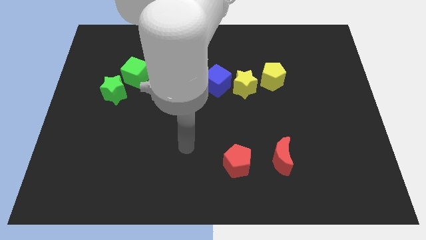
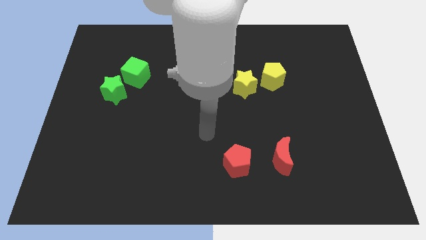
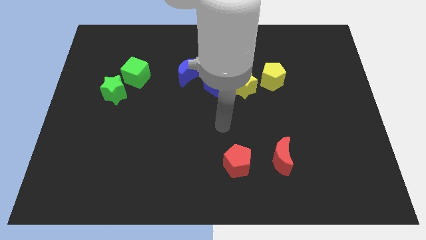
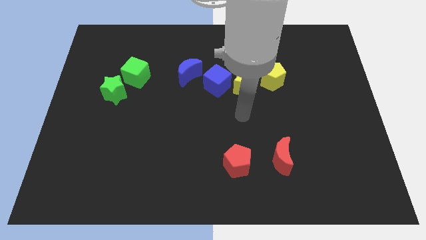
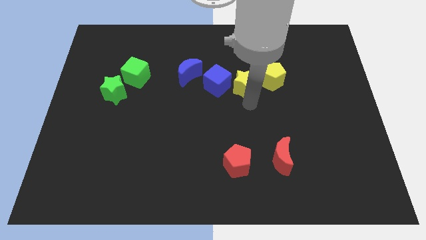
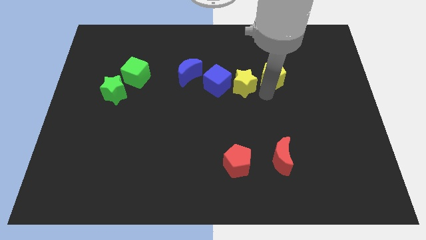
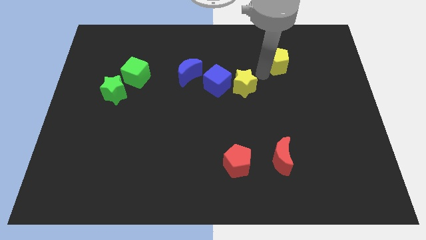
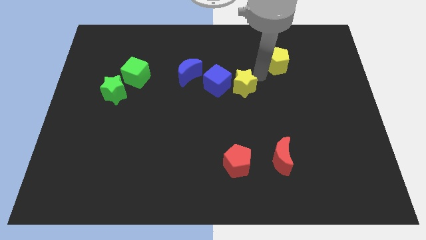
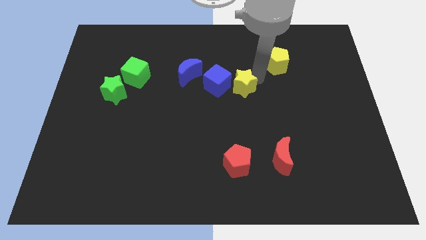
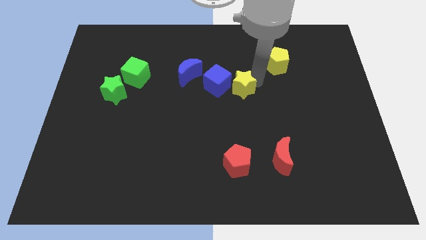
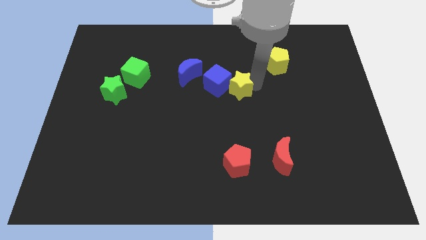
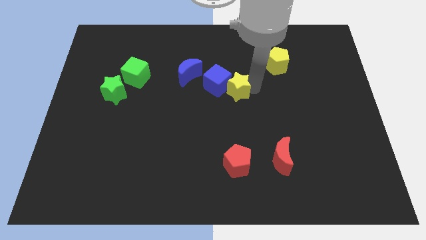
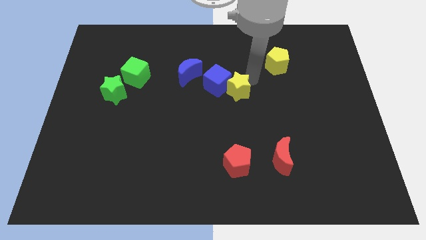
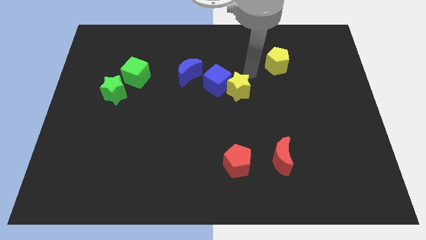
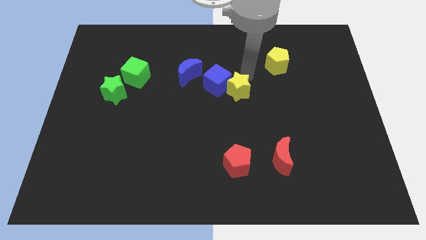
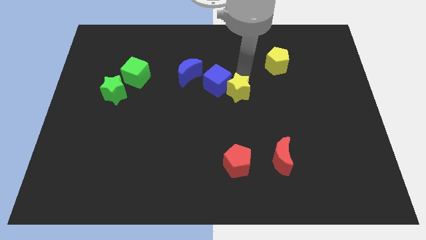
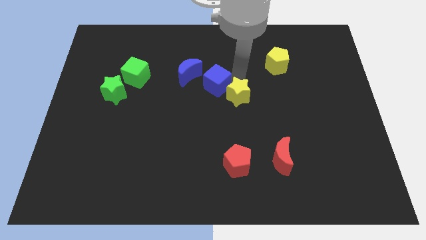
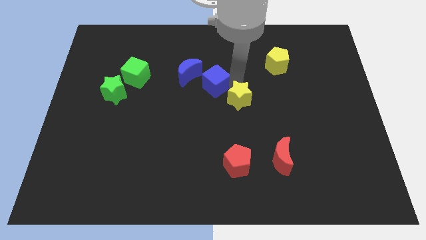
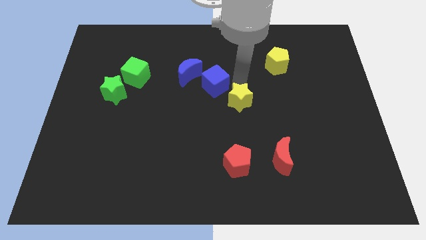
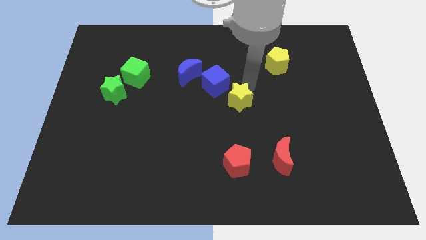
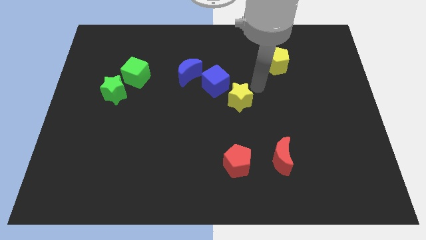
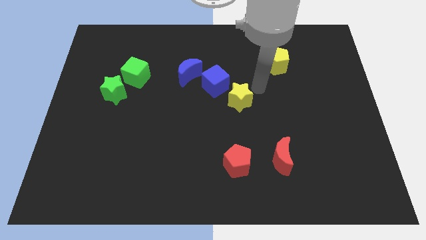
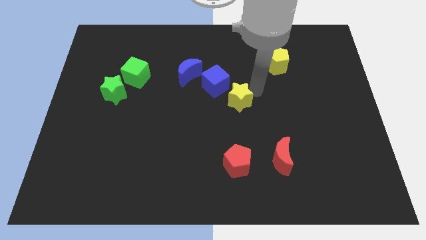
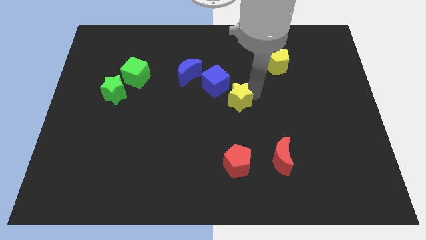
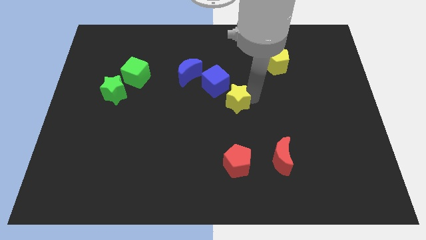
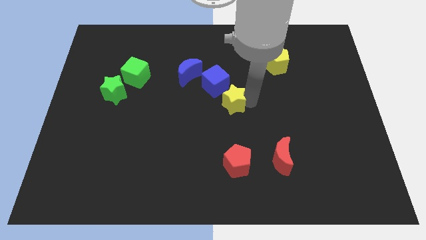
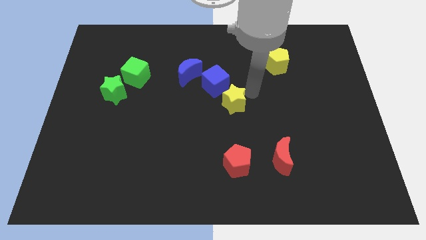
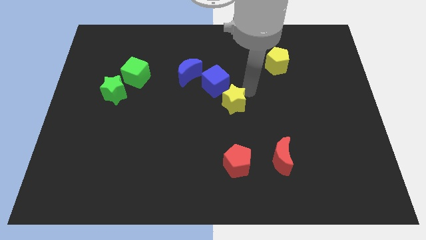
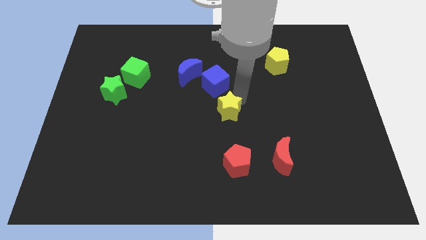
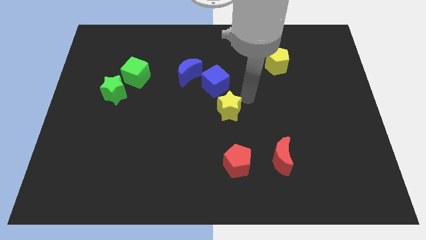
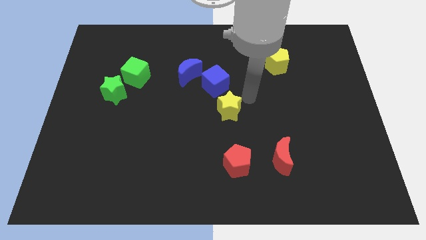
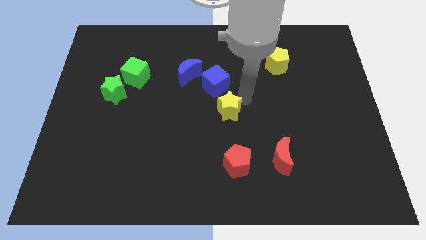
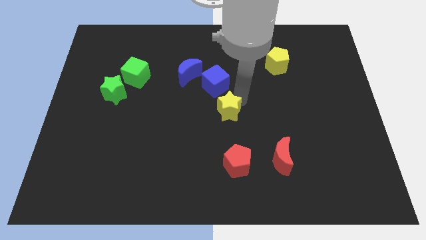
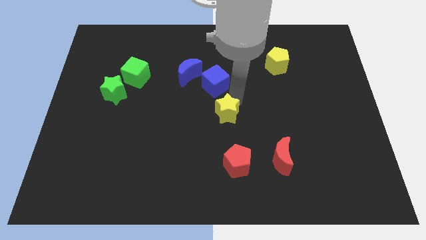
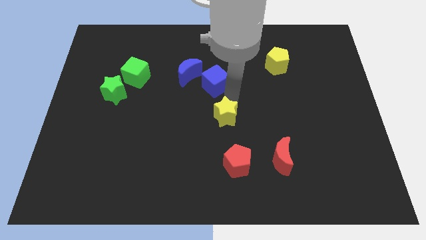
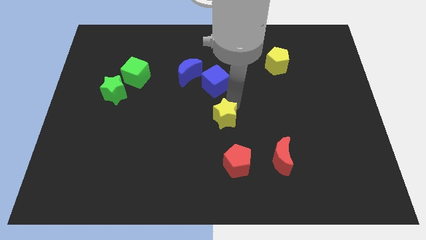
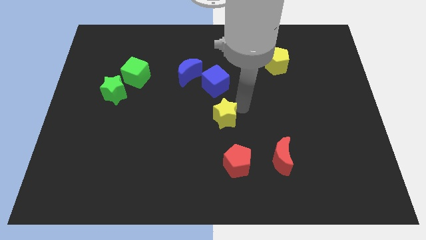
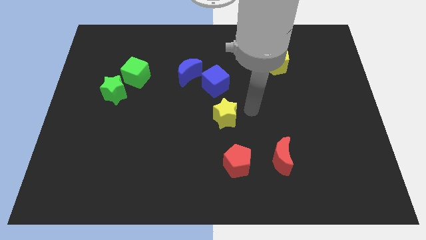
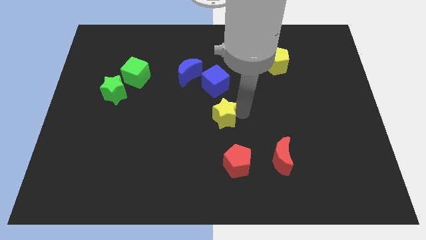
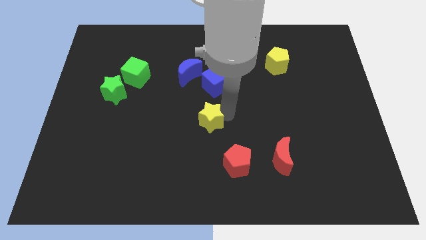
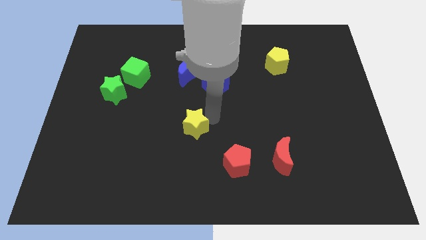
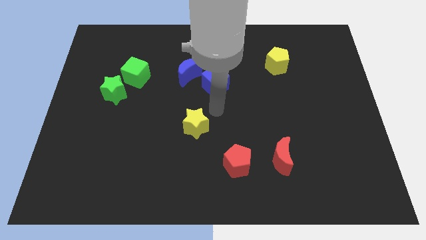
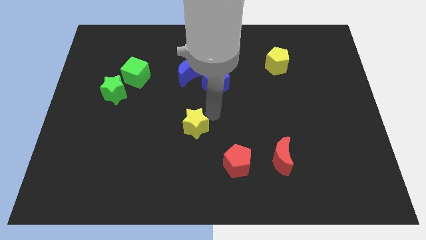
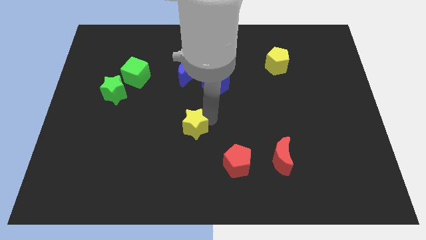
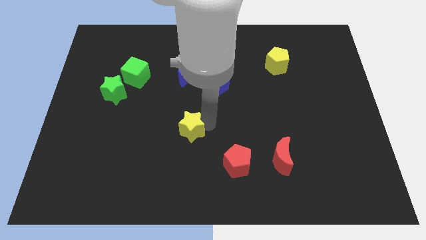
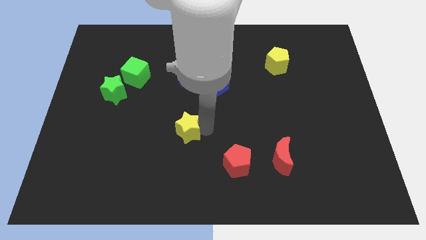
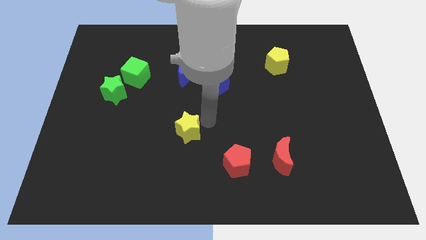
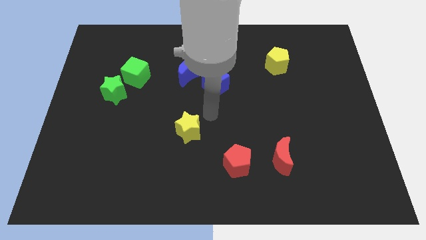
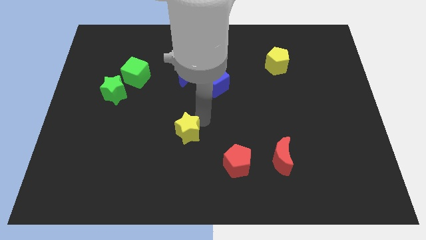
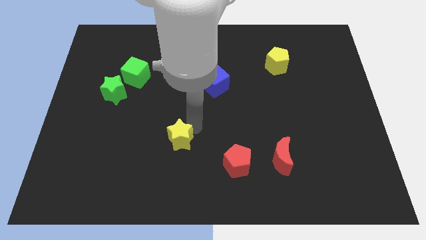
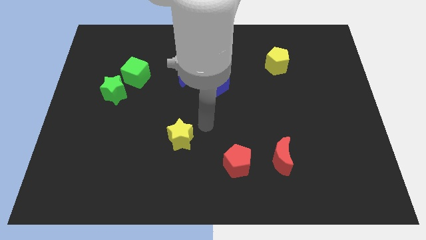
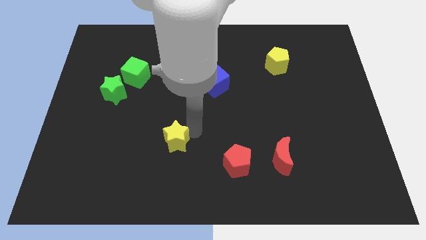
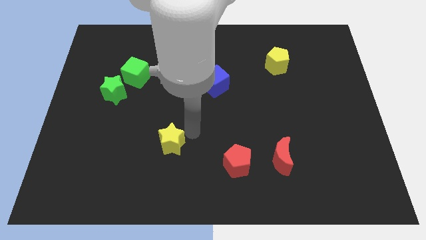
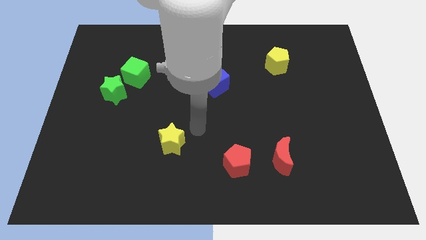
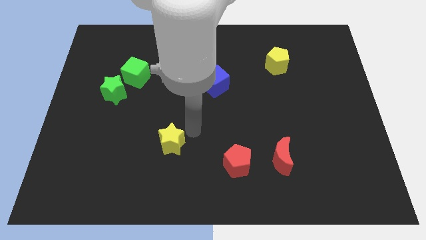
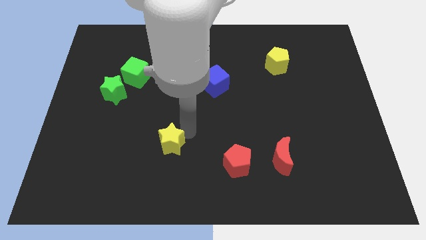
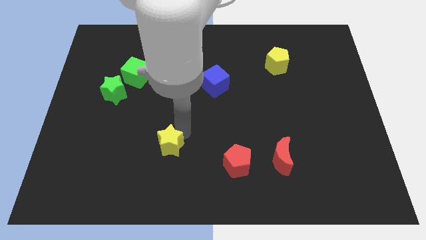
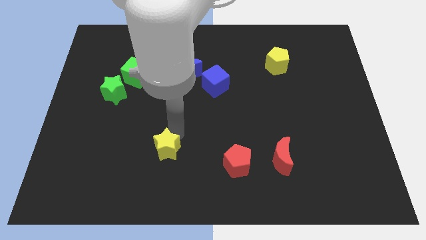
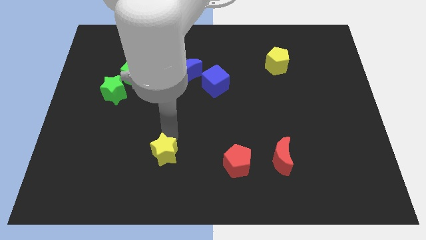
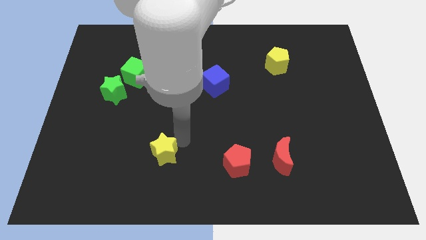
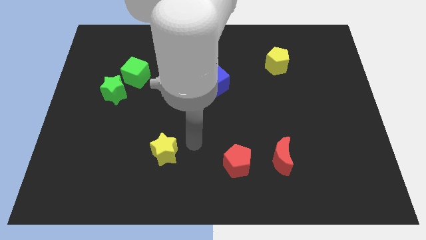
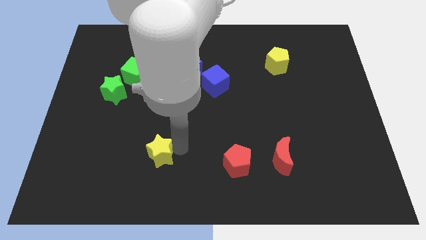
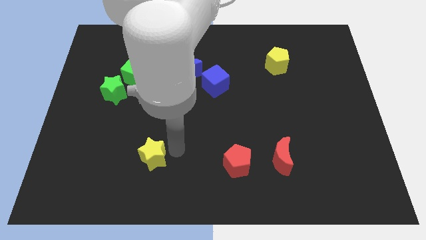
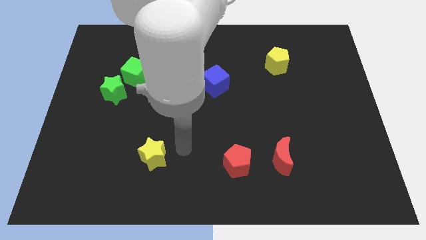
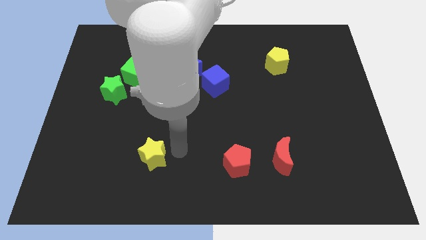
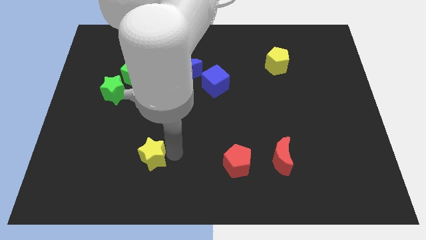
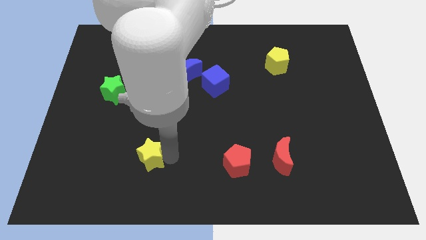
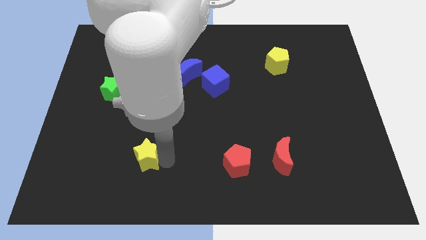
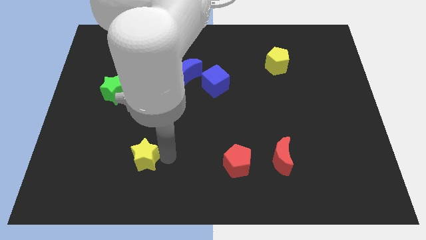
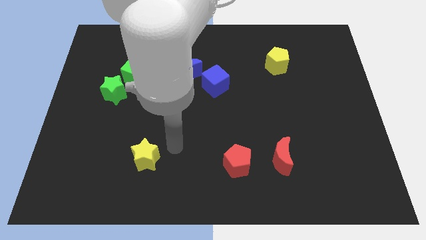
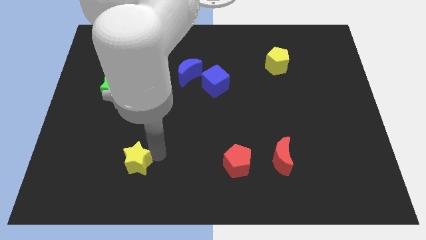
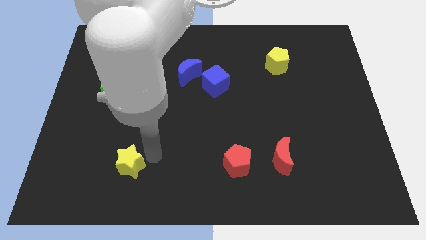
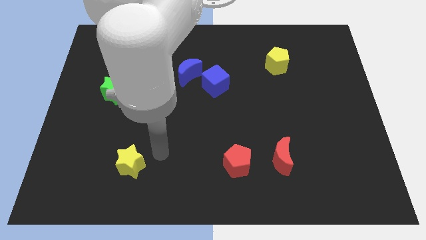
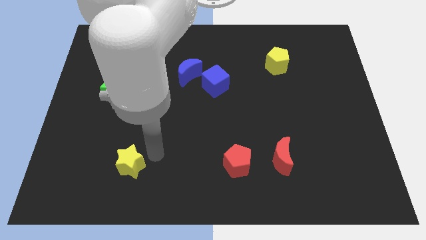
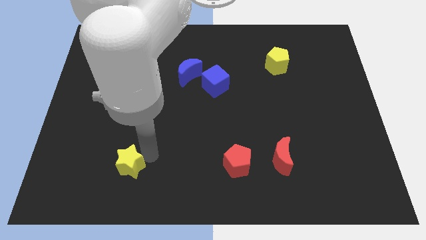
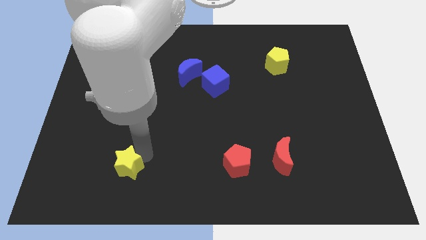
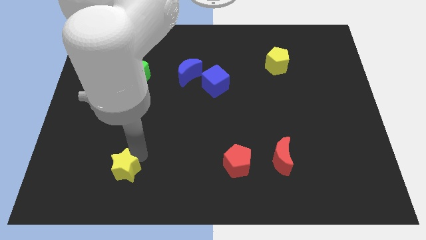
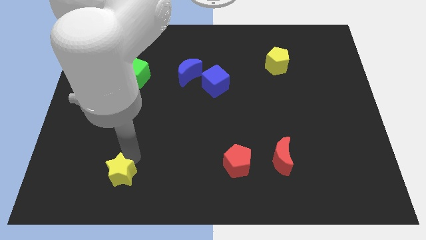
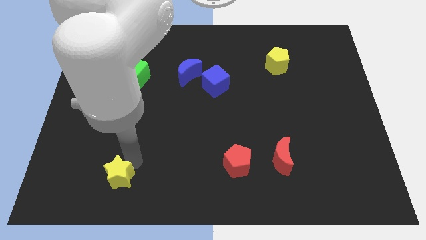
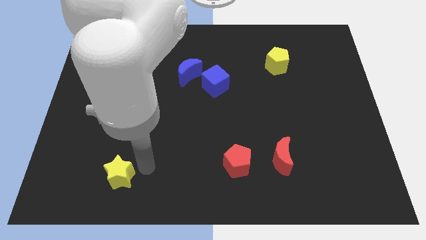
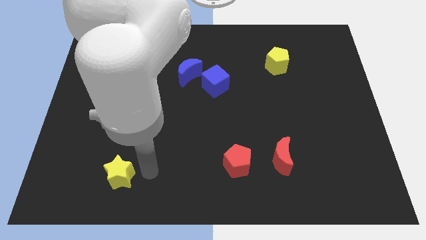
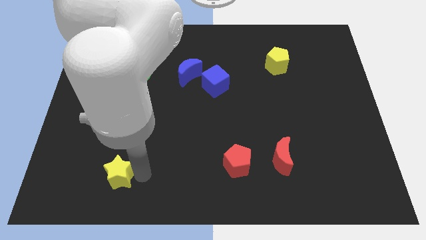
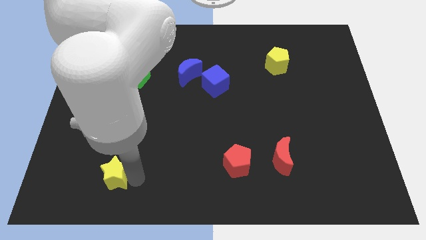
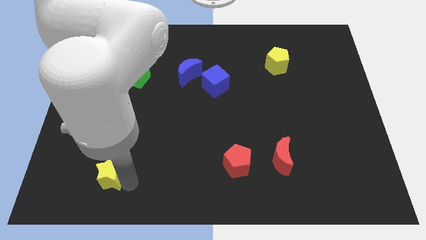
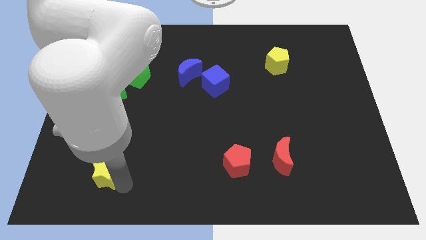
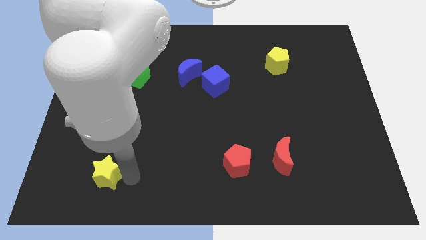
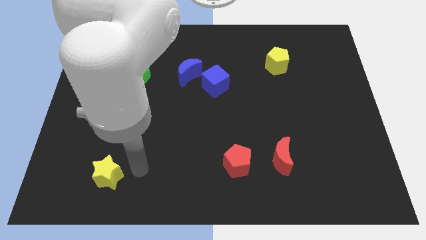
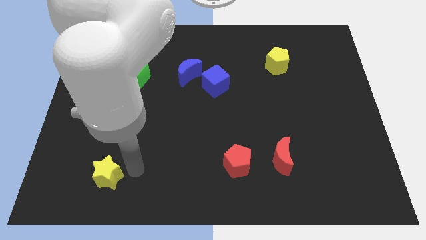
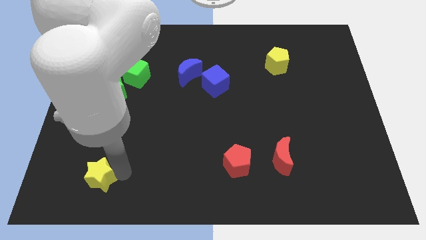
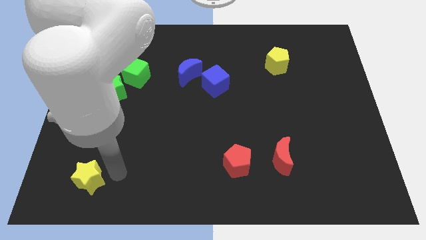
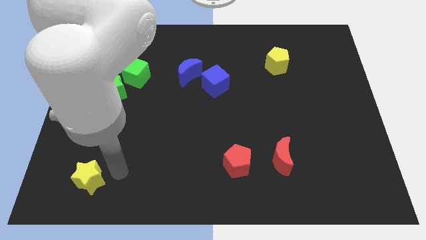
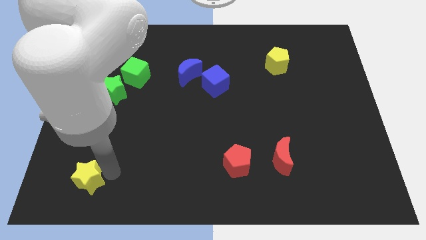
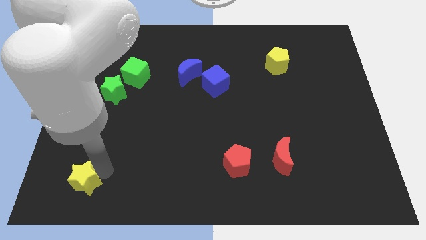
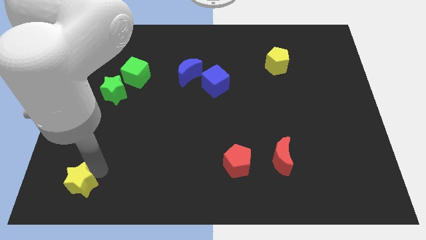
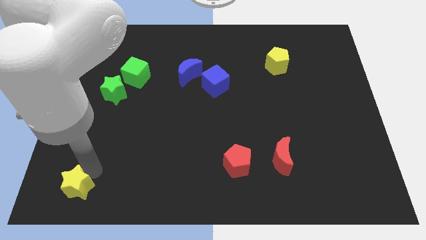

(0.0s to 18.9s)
move the yellow star to the bottom left
